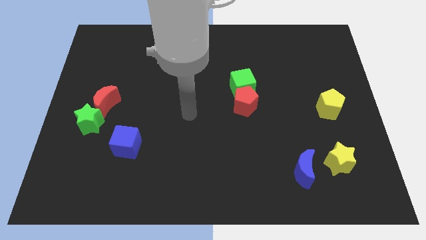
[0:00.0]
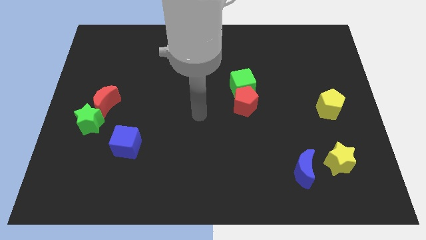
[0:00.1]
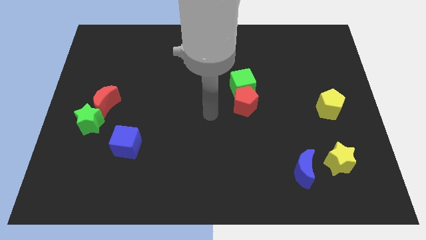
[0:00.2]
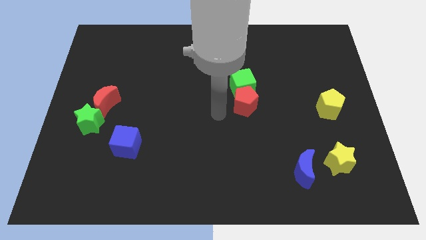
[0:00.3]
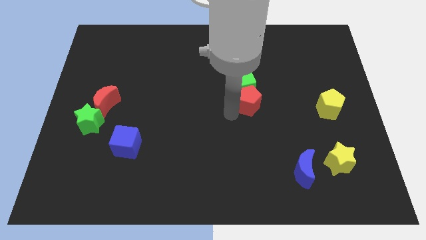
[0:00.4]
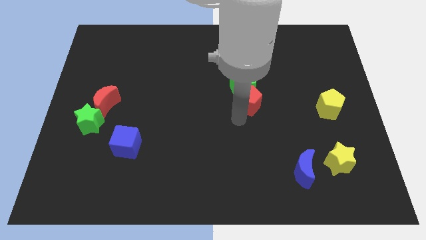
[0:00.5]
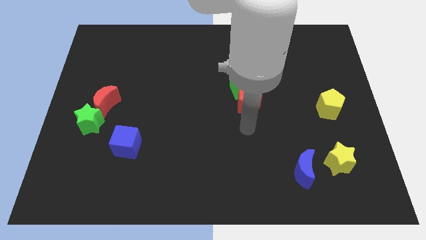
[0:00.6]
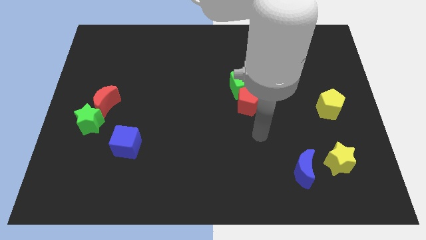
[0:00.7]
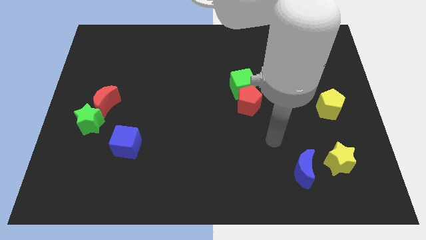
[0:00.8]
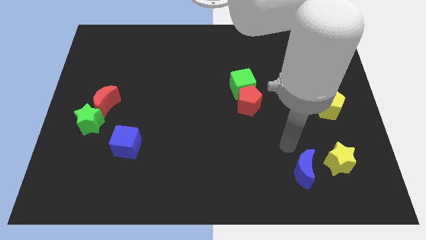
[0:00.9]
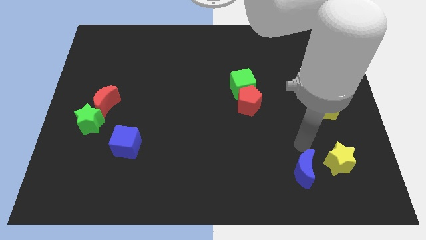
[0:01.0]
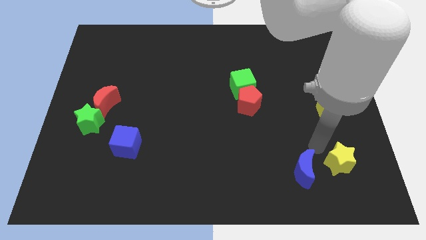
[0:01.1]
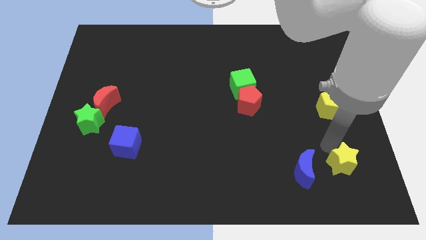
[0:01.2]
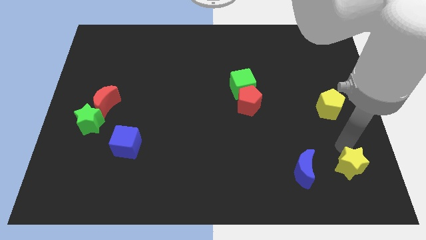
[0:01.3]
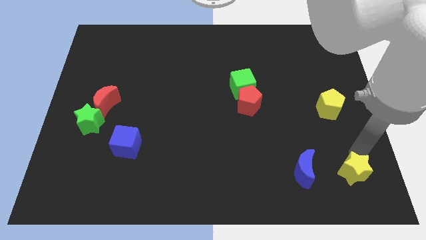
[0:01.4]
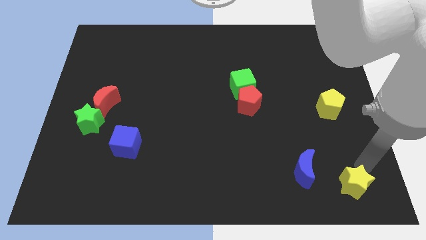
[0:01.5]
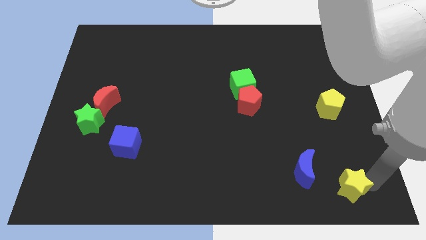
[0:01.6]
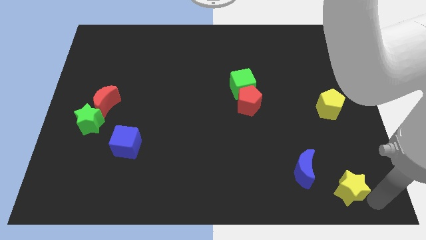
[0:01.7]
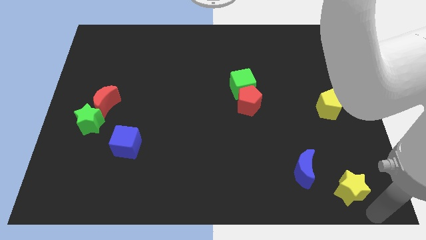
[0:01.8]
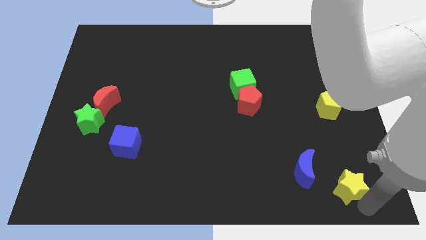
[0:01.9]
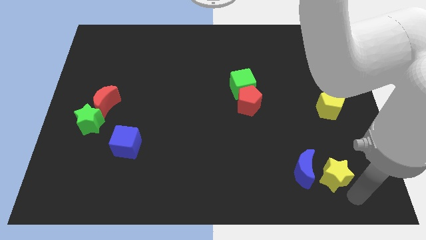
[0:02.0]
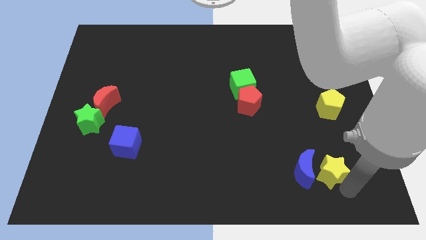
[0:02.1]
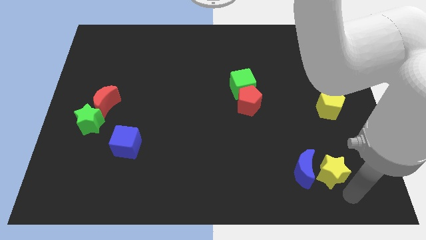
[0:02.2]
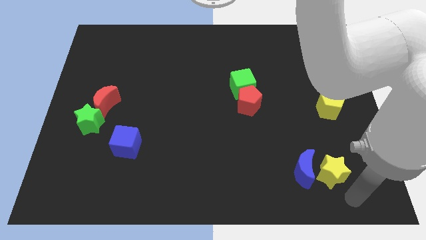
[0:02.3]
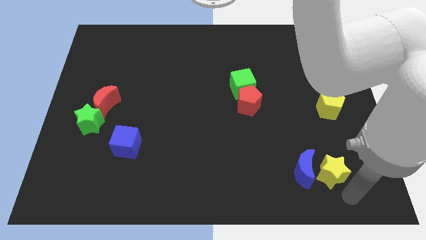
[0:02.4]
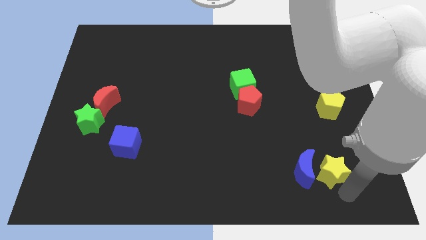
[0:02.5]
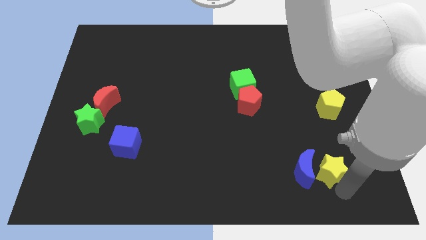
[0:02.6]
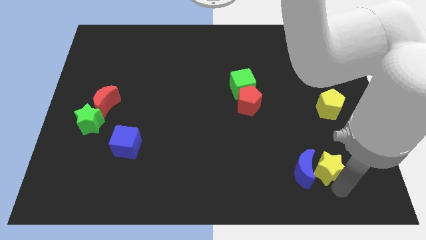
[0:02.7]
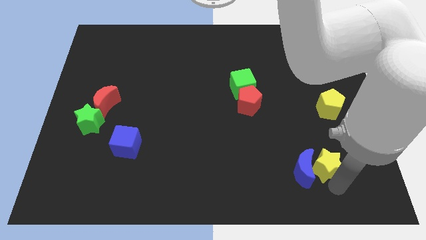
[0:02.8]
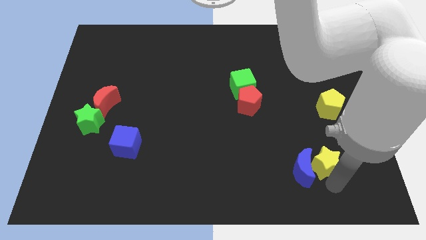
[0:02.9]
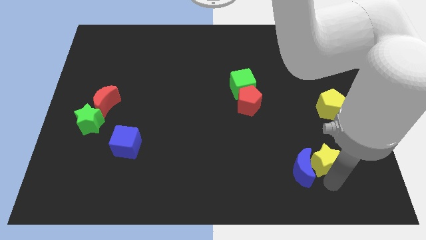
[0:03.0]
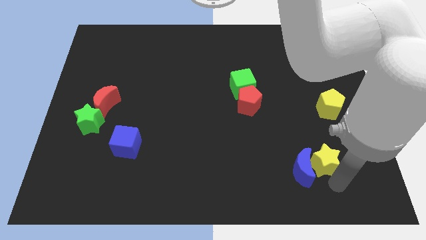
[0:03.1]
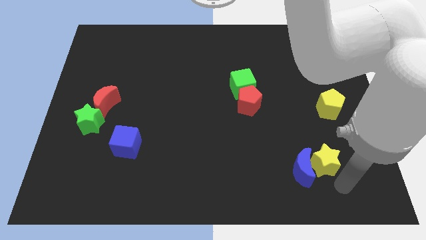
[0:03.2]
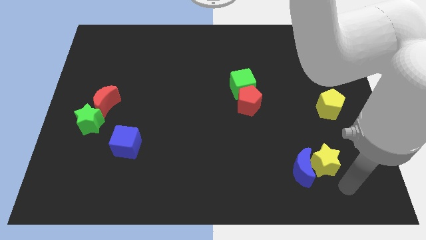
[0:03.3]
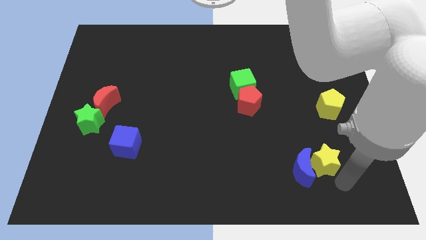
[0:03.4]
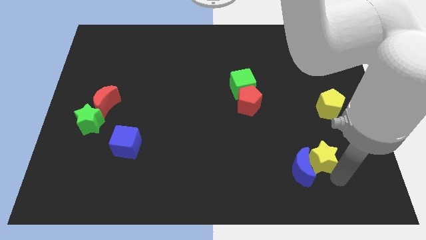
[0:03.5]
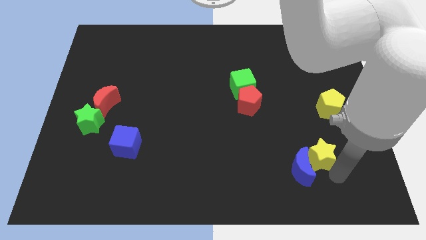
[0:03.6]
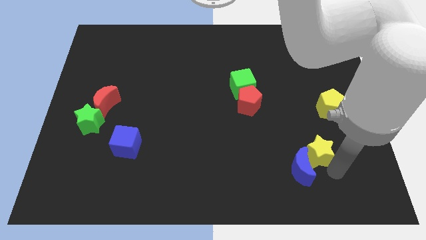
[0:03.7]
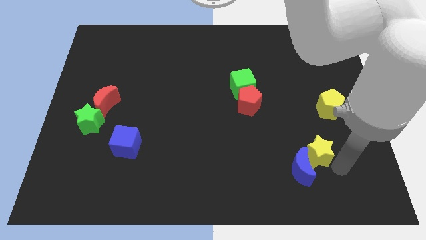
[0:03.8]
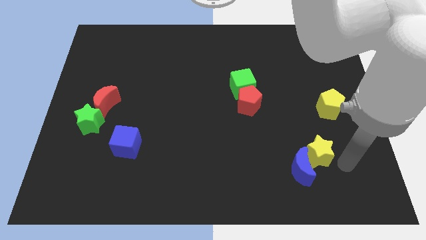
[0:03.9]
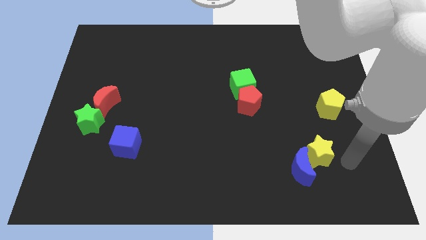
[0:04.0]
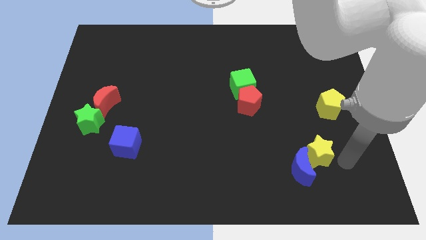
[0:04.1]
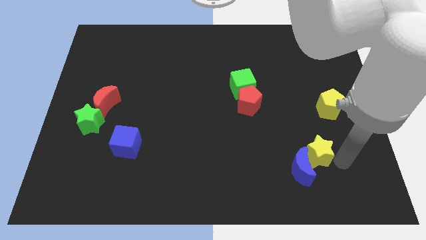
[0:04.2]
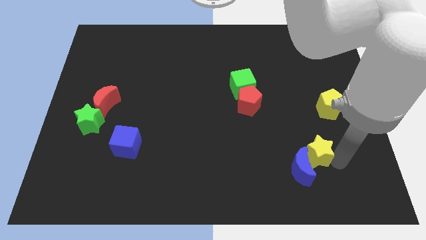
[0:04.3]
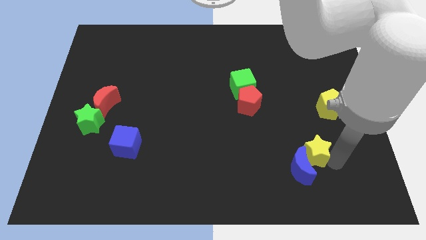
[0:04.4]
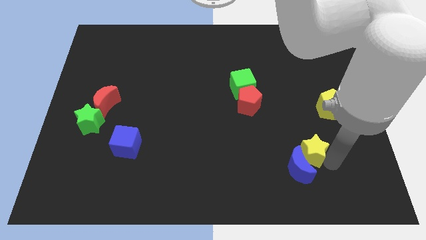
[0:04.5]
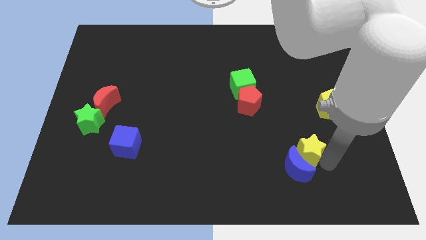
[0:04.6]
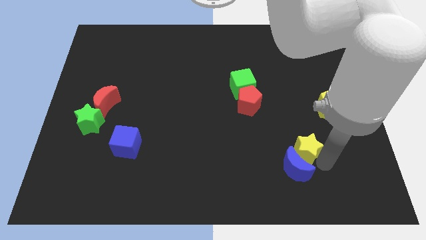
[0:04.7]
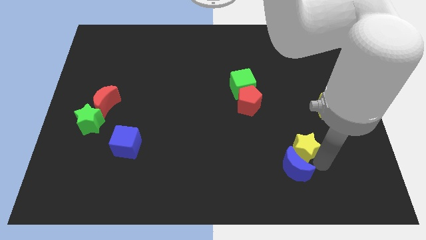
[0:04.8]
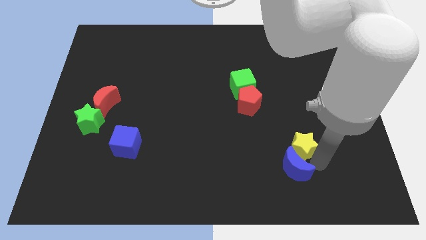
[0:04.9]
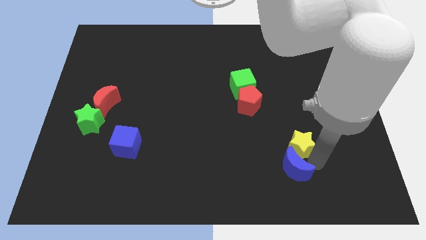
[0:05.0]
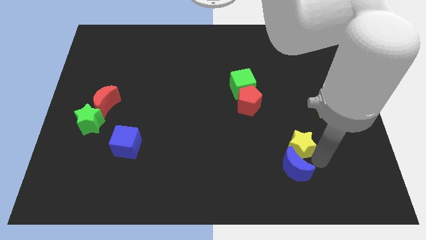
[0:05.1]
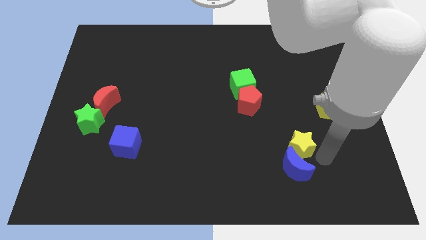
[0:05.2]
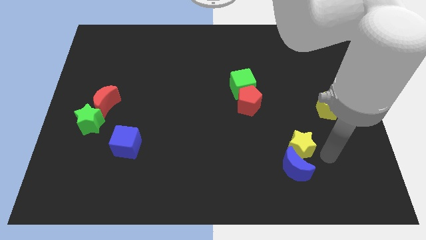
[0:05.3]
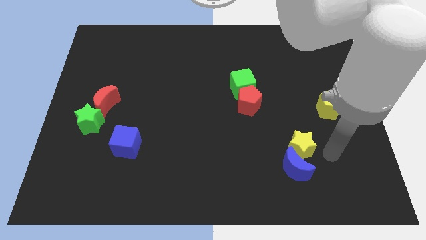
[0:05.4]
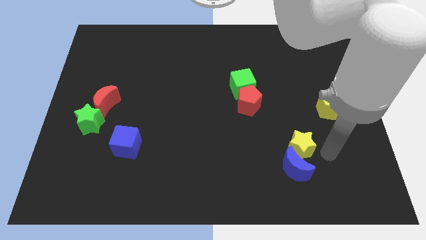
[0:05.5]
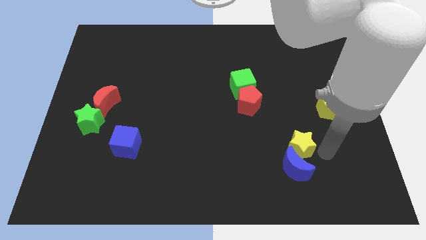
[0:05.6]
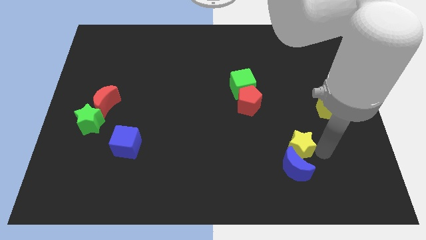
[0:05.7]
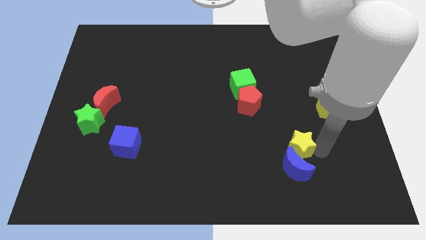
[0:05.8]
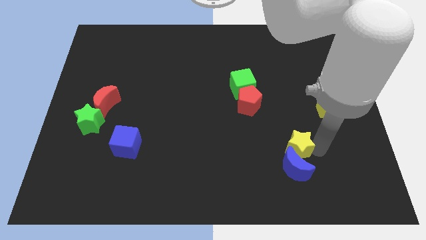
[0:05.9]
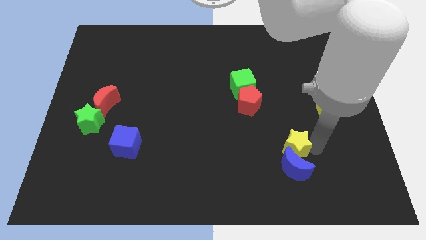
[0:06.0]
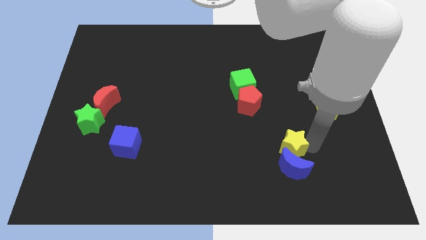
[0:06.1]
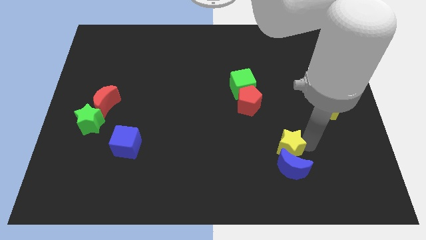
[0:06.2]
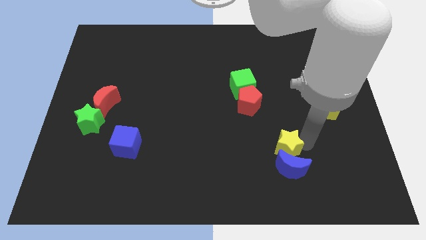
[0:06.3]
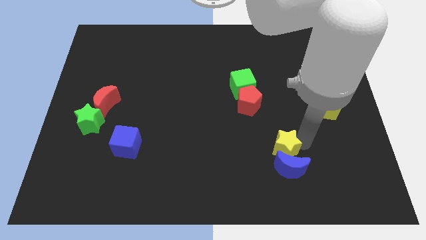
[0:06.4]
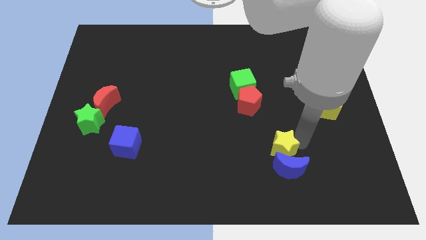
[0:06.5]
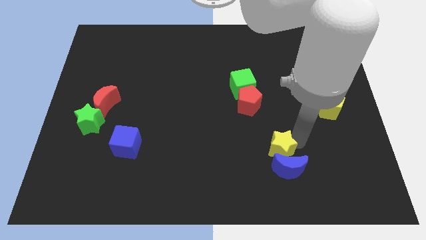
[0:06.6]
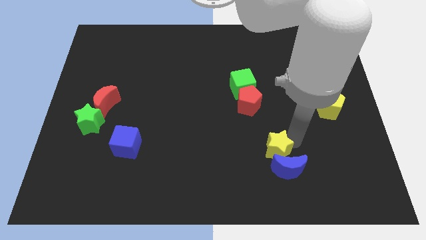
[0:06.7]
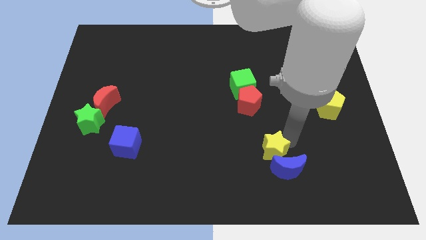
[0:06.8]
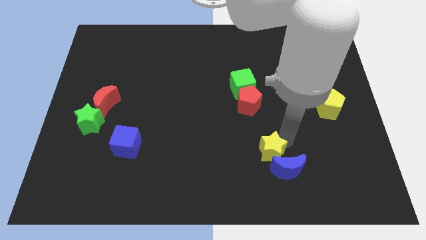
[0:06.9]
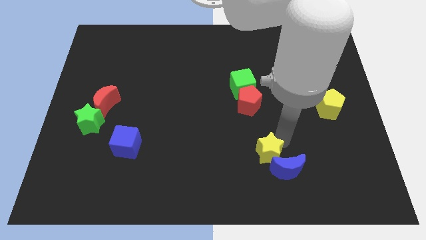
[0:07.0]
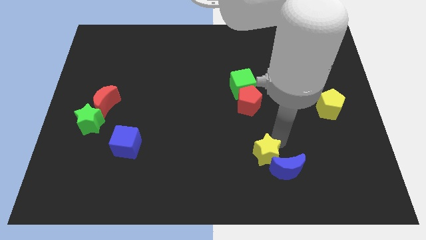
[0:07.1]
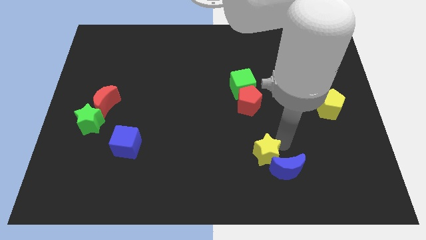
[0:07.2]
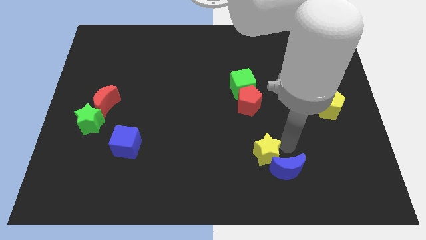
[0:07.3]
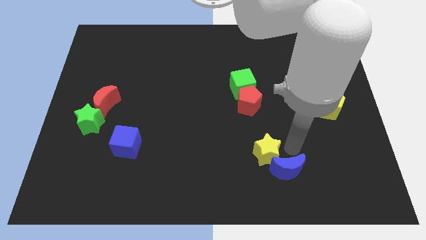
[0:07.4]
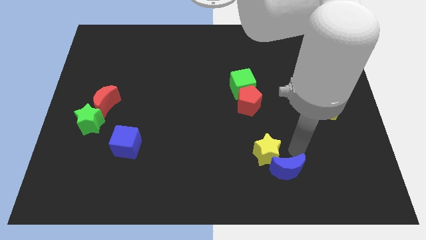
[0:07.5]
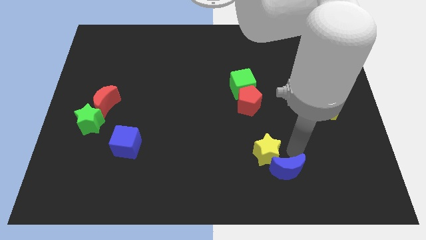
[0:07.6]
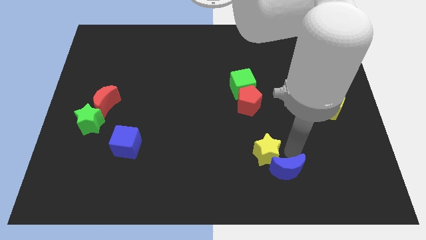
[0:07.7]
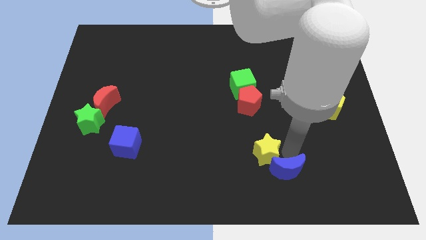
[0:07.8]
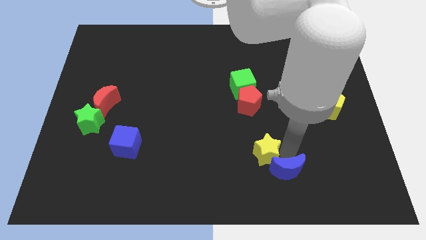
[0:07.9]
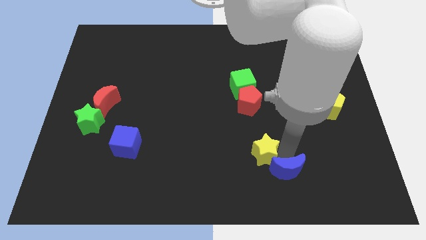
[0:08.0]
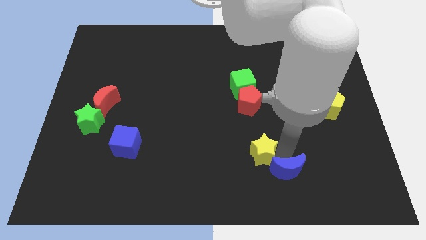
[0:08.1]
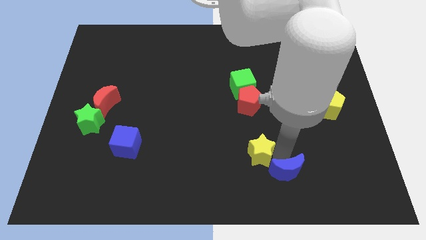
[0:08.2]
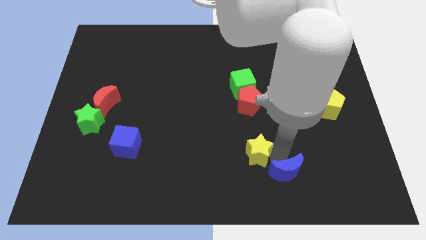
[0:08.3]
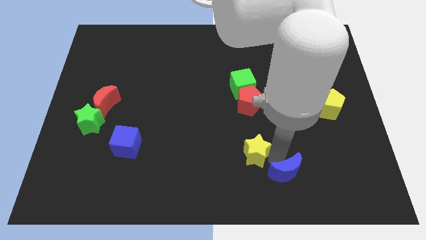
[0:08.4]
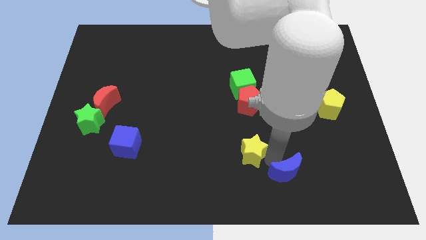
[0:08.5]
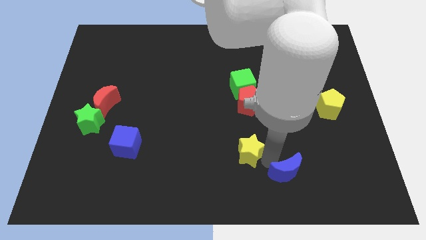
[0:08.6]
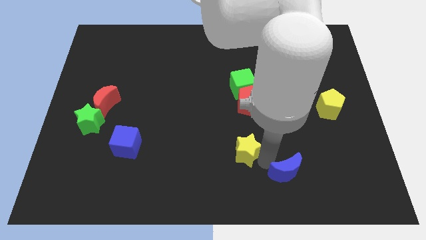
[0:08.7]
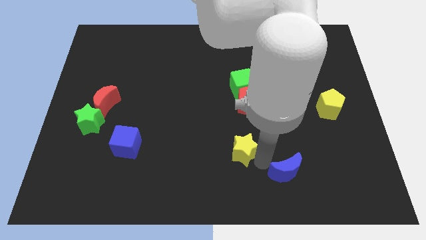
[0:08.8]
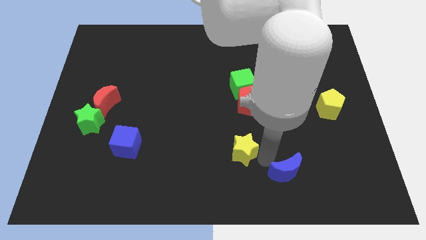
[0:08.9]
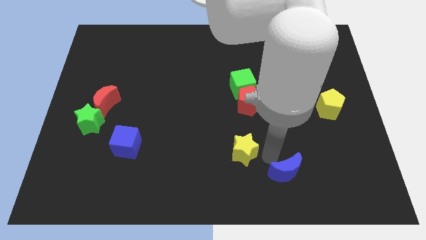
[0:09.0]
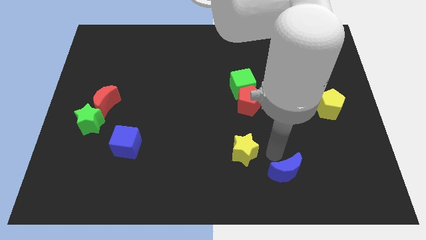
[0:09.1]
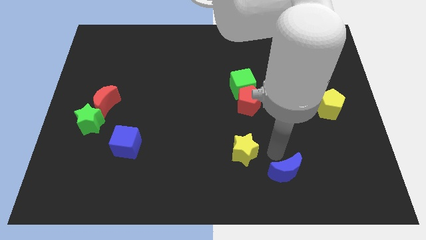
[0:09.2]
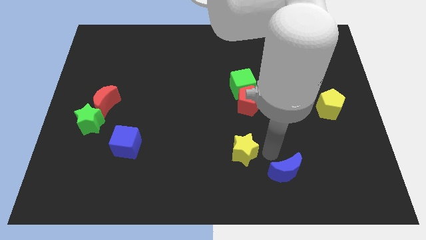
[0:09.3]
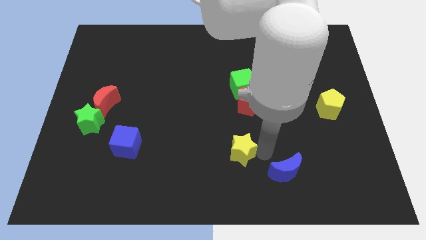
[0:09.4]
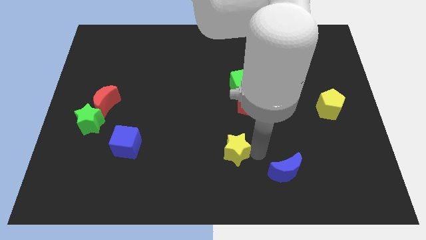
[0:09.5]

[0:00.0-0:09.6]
move the yellow star left
